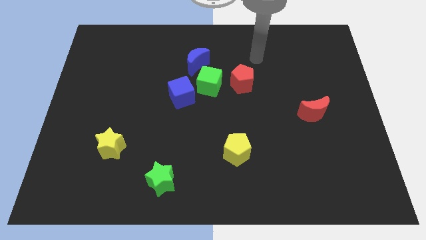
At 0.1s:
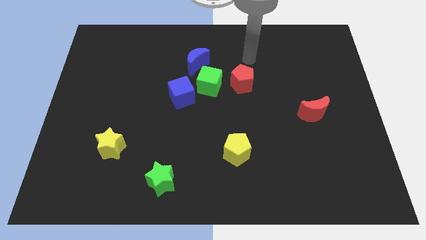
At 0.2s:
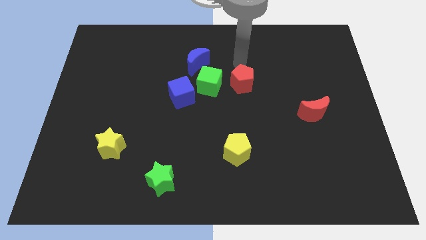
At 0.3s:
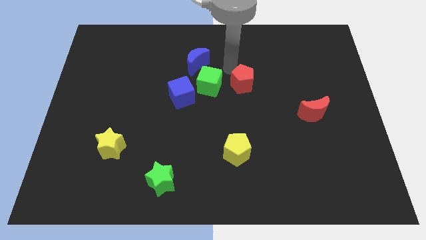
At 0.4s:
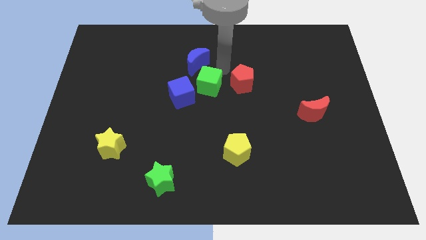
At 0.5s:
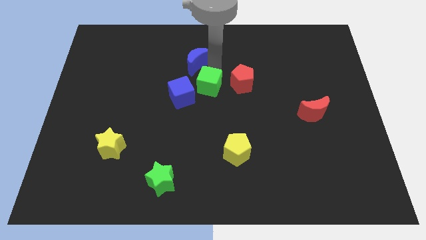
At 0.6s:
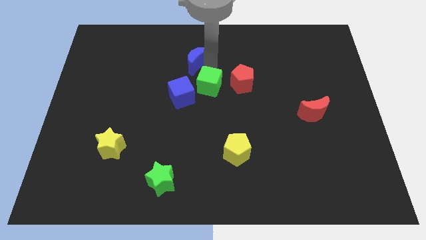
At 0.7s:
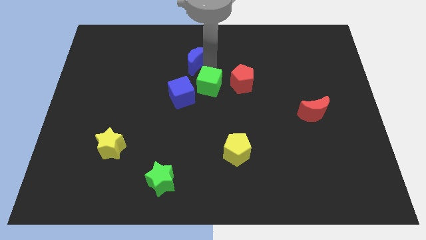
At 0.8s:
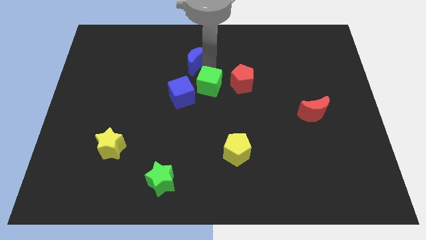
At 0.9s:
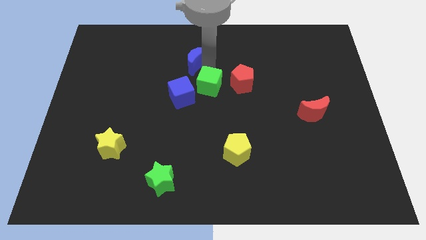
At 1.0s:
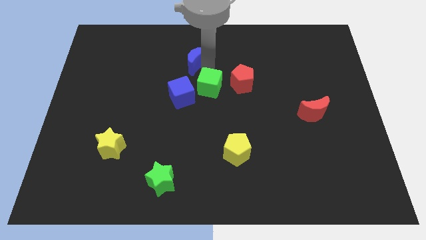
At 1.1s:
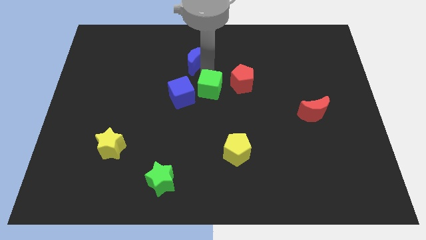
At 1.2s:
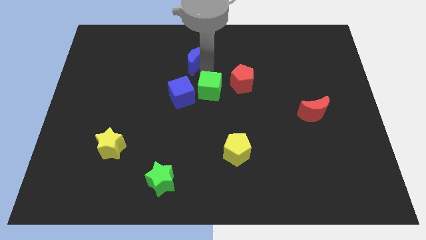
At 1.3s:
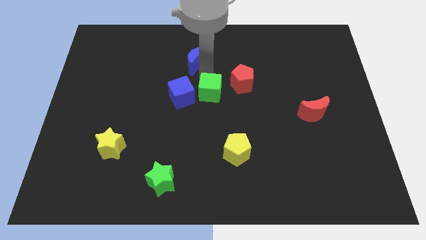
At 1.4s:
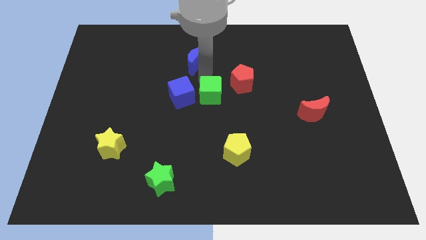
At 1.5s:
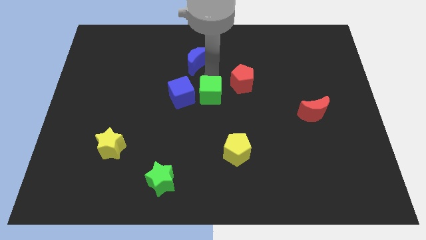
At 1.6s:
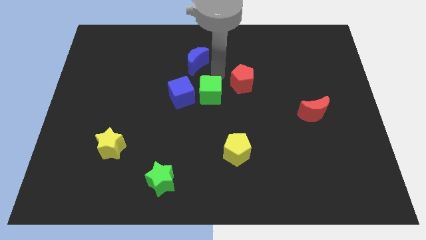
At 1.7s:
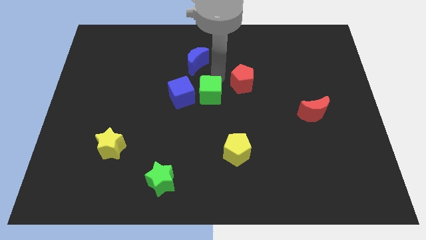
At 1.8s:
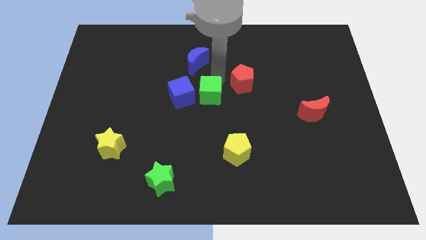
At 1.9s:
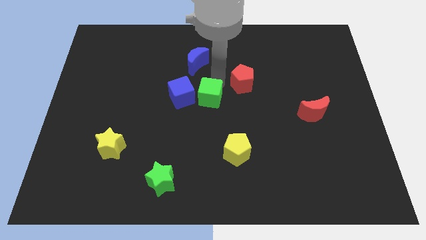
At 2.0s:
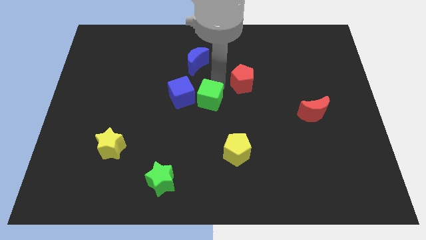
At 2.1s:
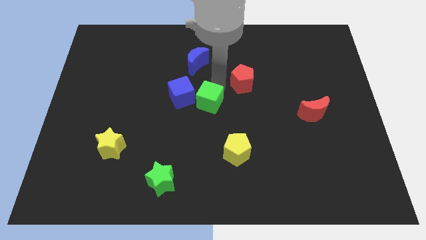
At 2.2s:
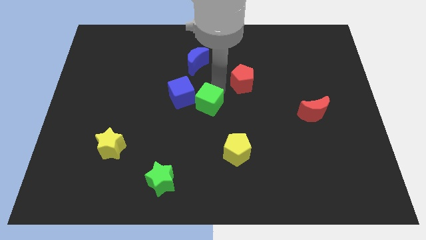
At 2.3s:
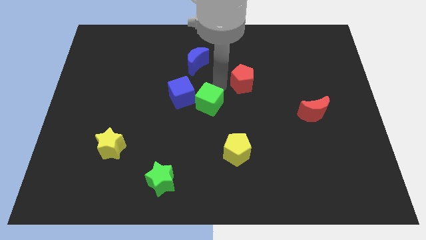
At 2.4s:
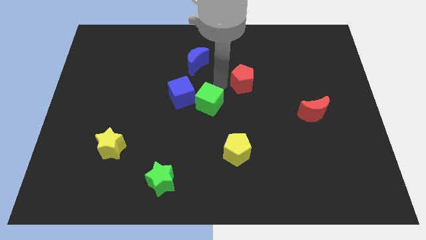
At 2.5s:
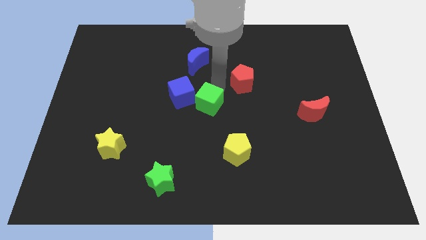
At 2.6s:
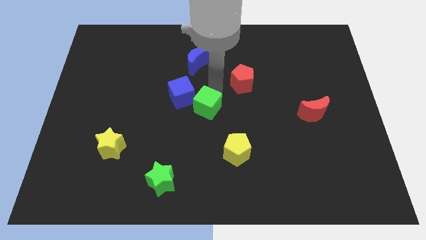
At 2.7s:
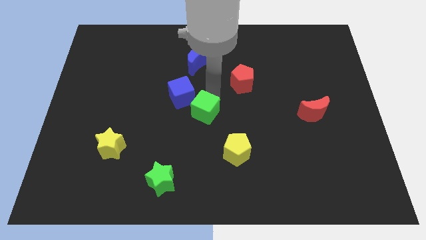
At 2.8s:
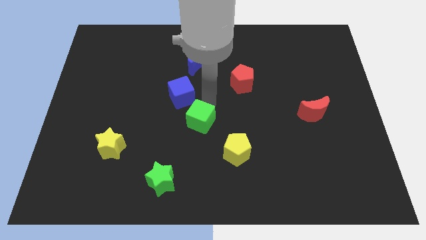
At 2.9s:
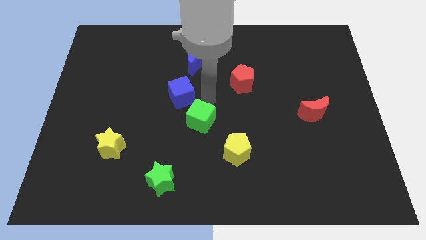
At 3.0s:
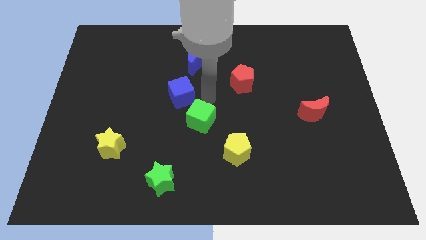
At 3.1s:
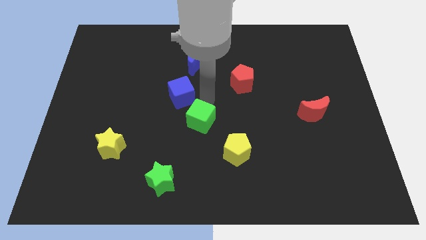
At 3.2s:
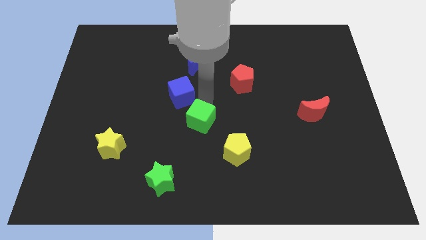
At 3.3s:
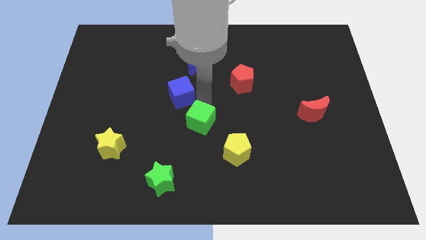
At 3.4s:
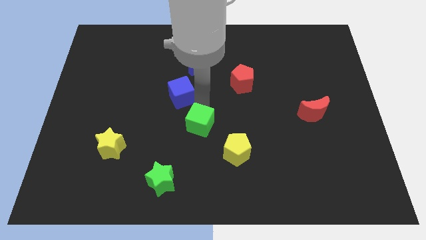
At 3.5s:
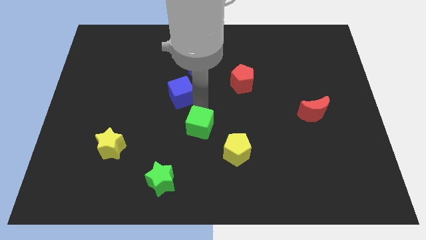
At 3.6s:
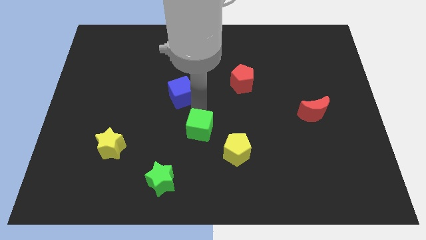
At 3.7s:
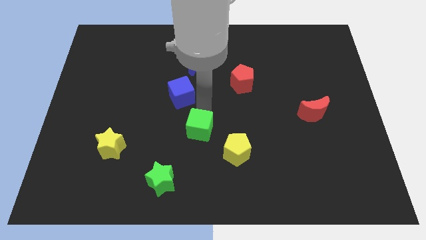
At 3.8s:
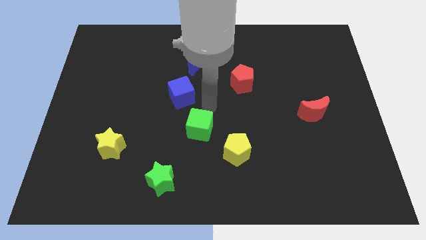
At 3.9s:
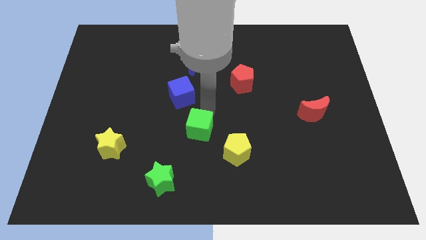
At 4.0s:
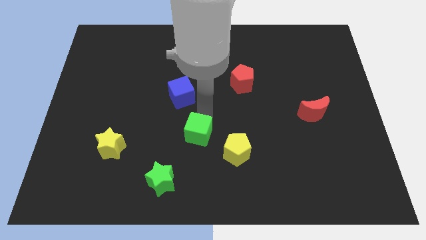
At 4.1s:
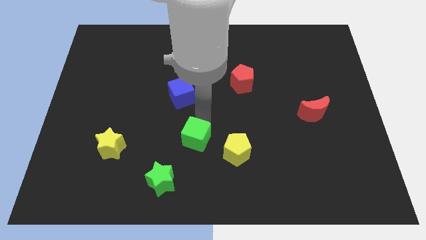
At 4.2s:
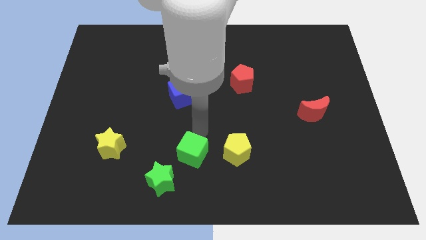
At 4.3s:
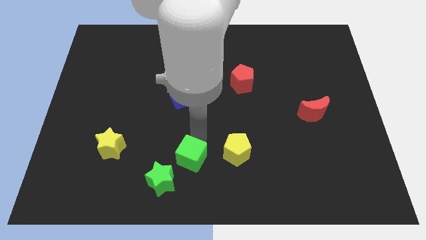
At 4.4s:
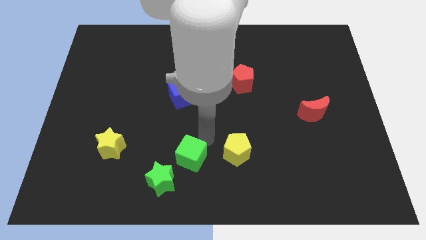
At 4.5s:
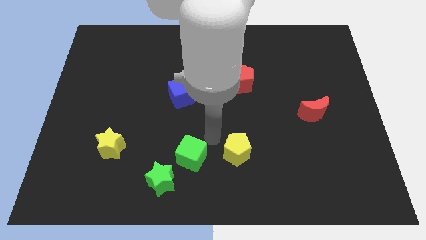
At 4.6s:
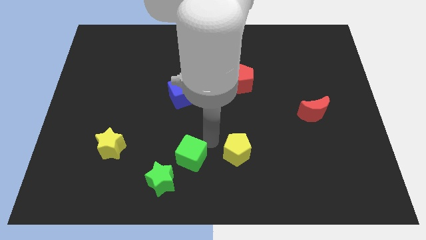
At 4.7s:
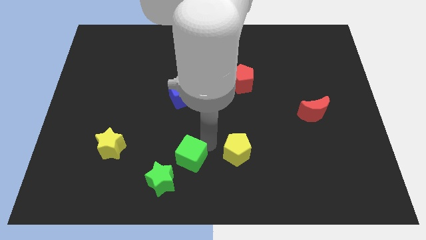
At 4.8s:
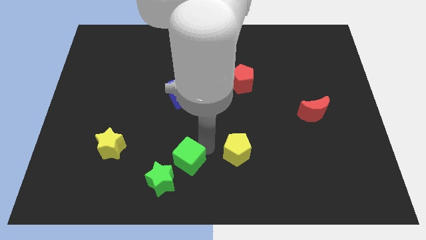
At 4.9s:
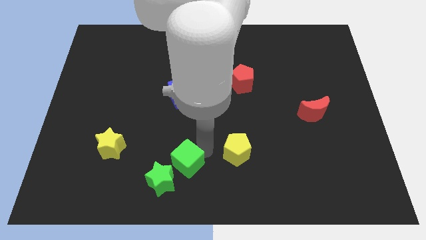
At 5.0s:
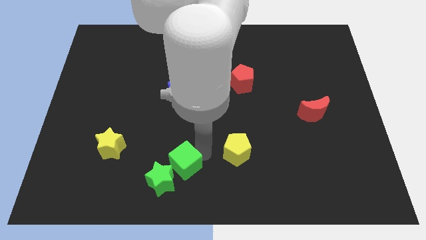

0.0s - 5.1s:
slide the green cube to the green star

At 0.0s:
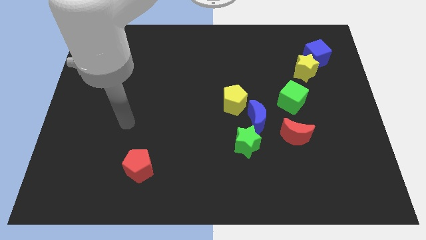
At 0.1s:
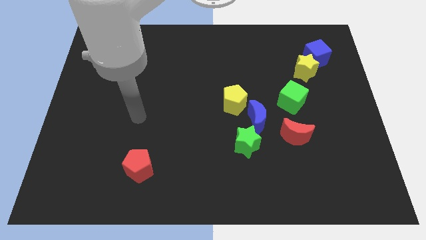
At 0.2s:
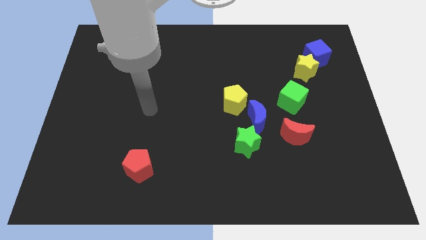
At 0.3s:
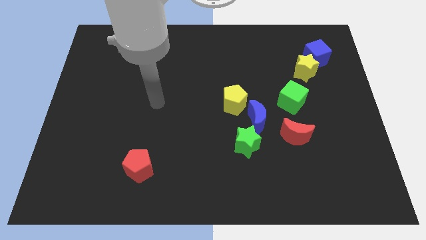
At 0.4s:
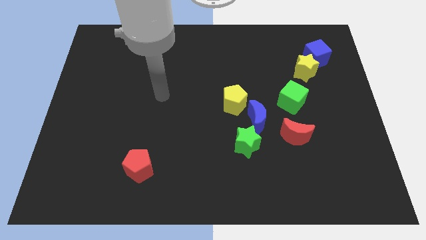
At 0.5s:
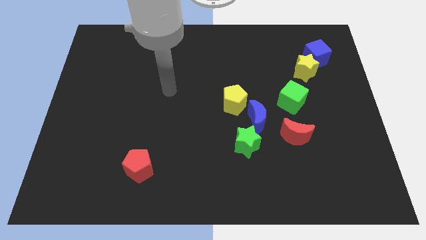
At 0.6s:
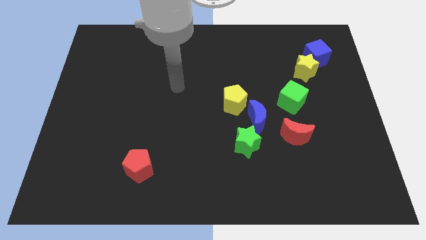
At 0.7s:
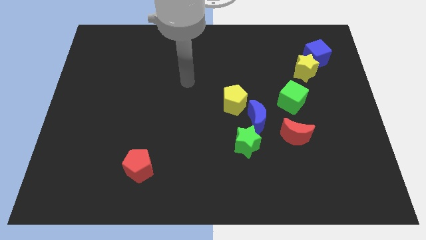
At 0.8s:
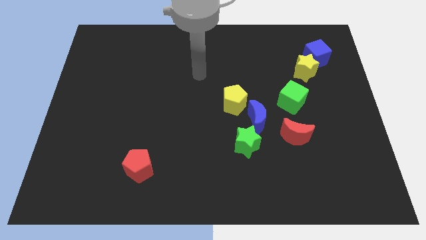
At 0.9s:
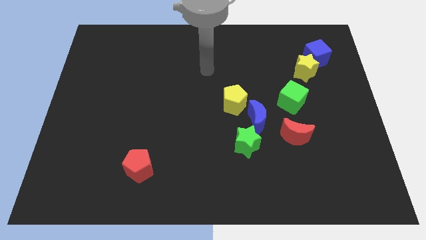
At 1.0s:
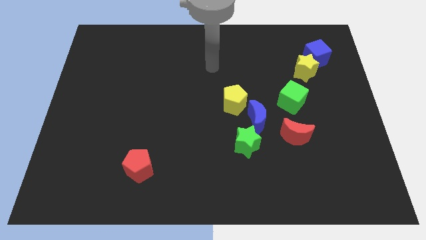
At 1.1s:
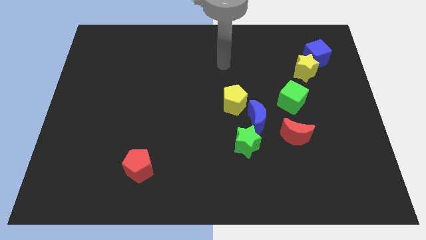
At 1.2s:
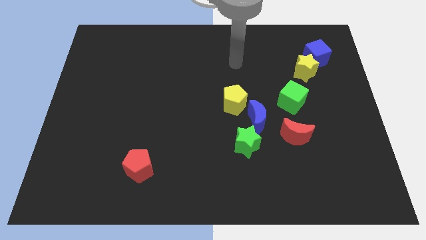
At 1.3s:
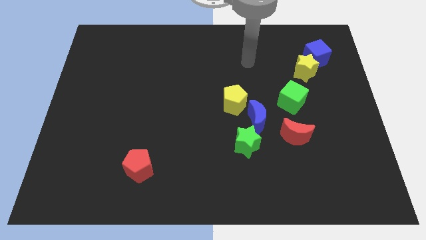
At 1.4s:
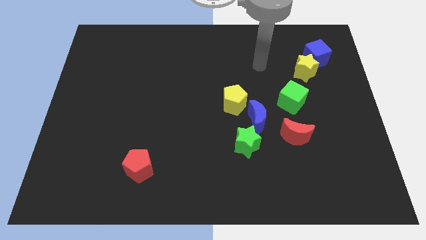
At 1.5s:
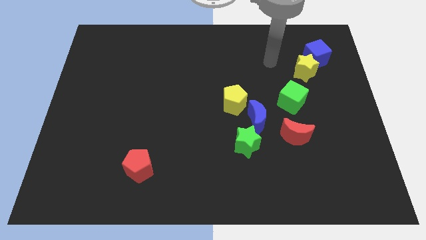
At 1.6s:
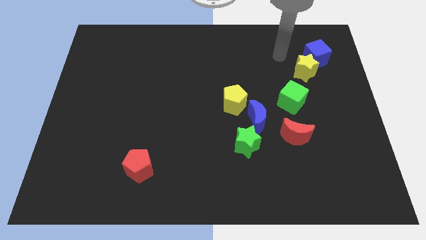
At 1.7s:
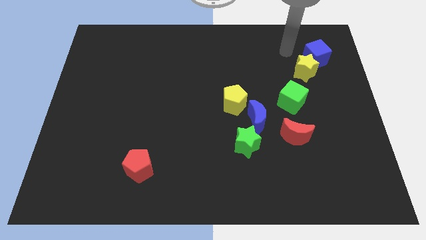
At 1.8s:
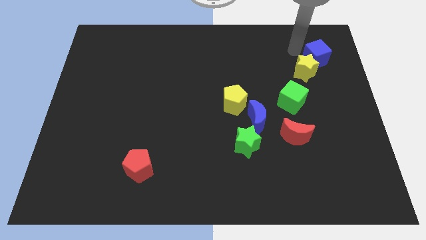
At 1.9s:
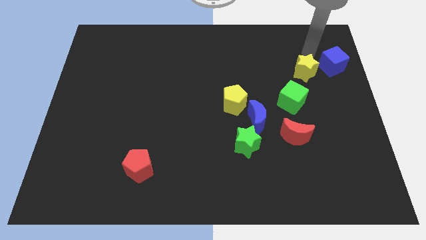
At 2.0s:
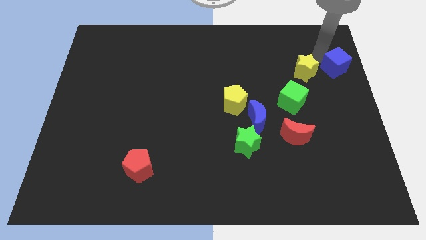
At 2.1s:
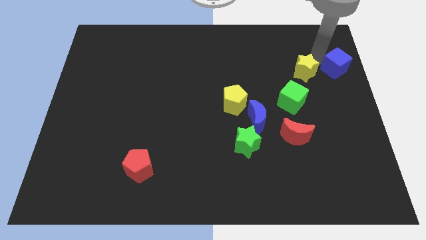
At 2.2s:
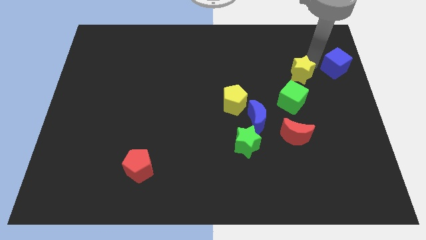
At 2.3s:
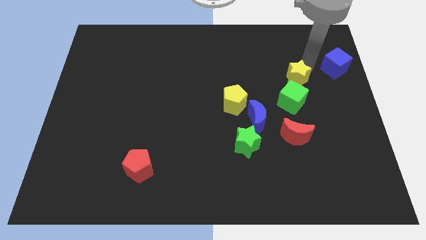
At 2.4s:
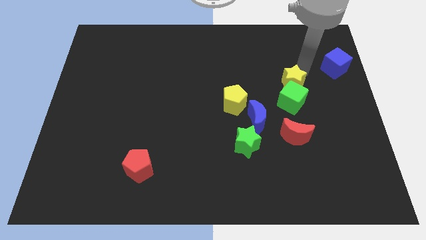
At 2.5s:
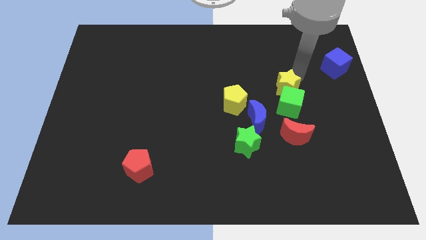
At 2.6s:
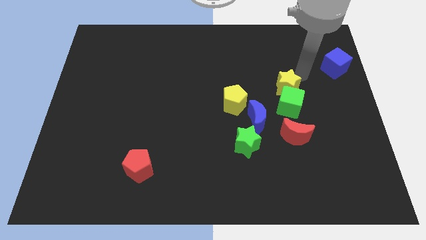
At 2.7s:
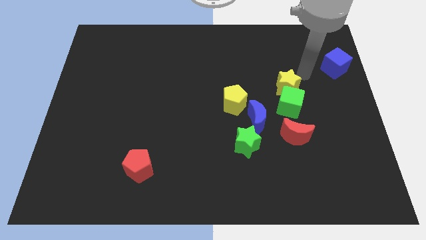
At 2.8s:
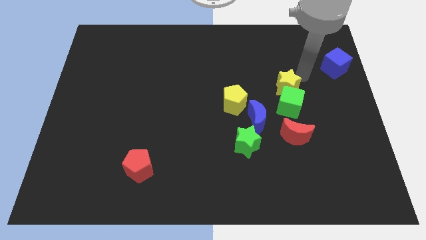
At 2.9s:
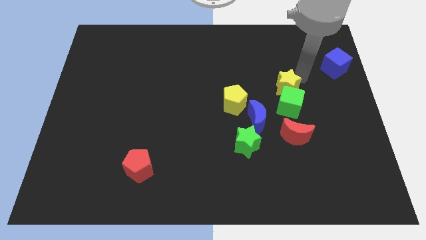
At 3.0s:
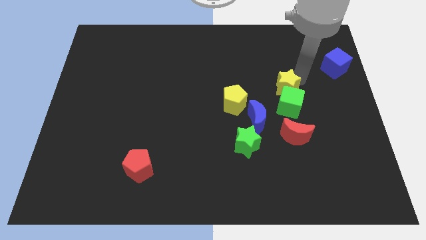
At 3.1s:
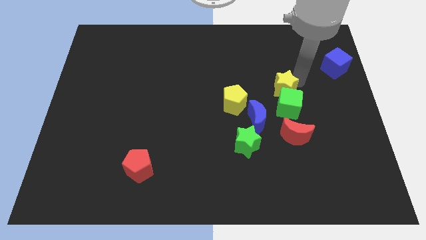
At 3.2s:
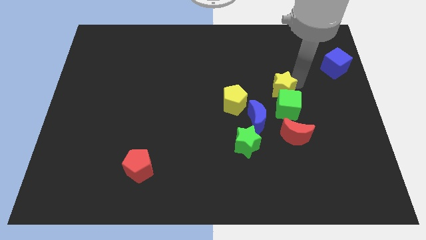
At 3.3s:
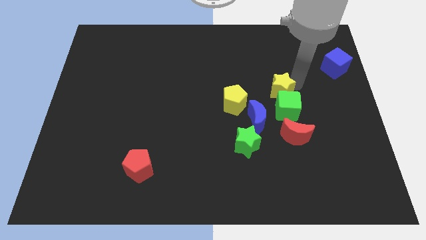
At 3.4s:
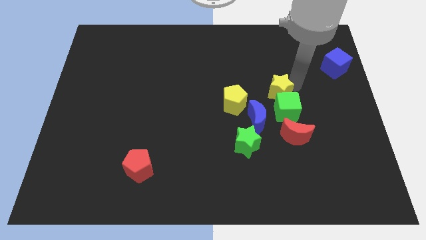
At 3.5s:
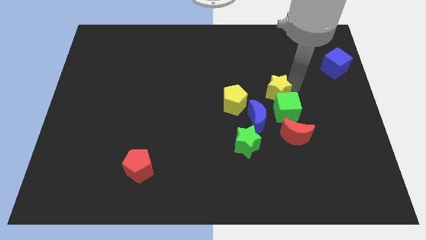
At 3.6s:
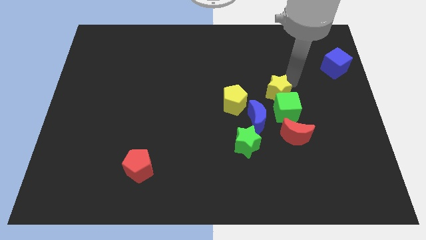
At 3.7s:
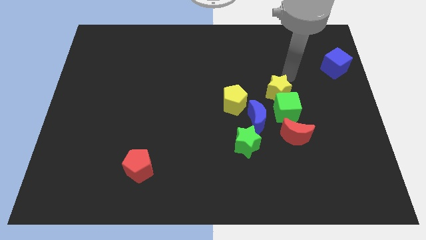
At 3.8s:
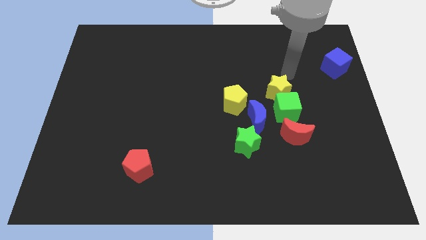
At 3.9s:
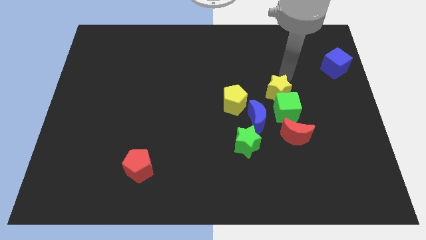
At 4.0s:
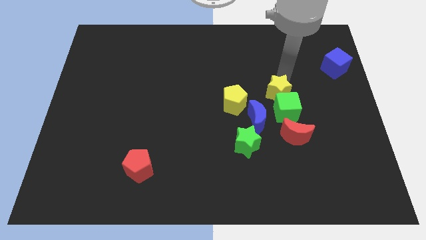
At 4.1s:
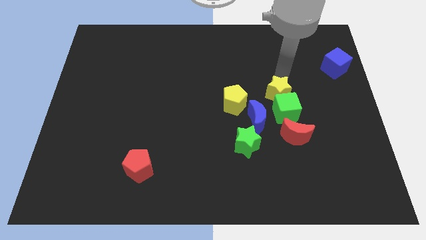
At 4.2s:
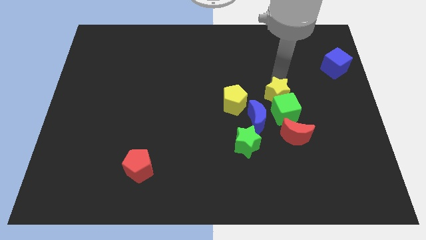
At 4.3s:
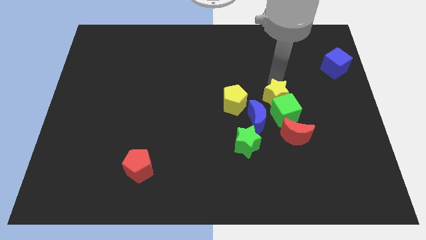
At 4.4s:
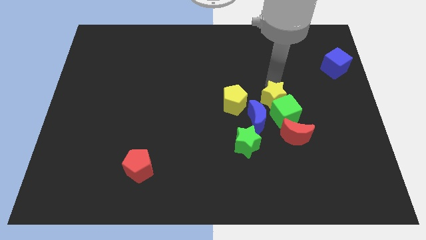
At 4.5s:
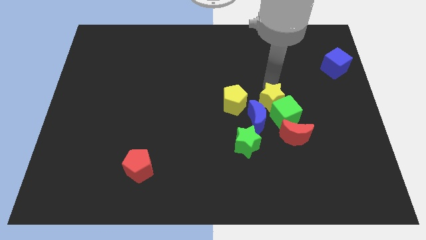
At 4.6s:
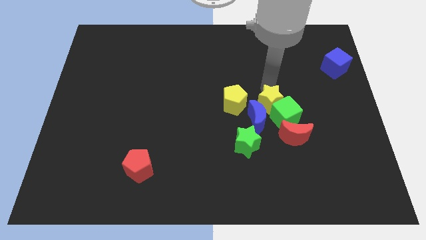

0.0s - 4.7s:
push the yellow star next to the blue moon
